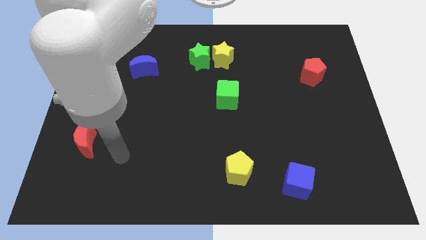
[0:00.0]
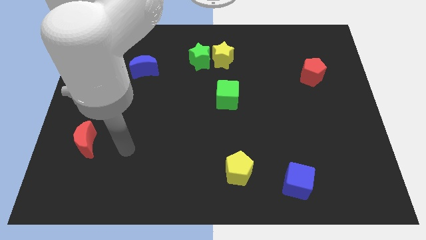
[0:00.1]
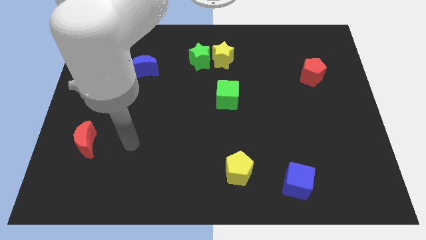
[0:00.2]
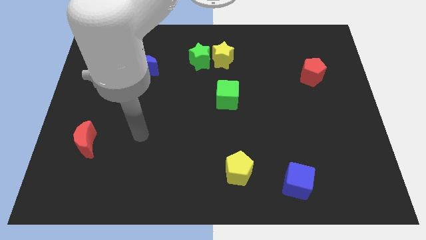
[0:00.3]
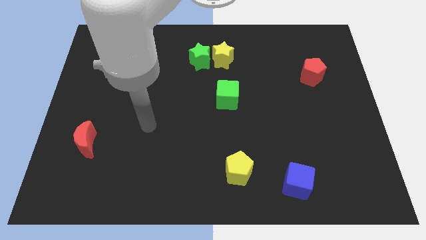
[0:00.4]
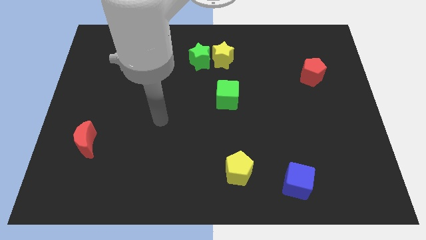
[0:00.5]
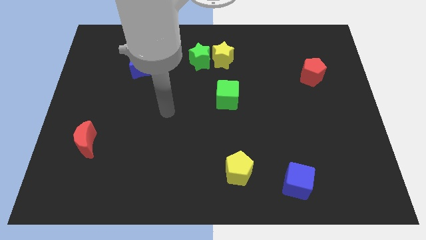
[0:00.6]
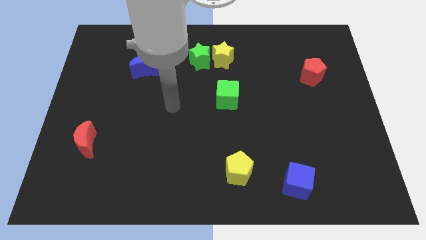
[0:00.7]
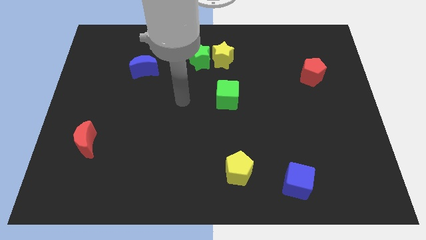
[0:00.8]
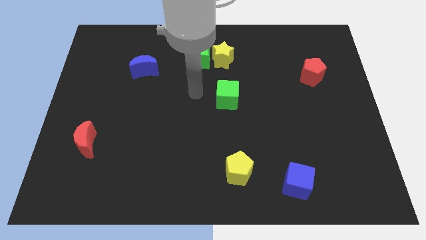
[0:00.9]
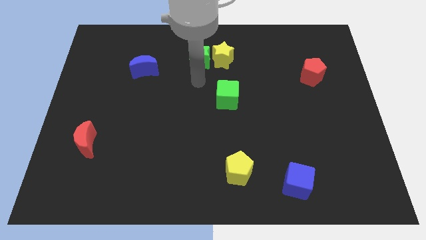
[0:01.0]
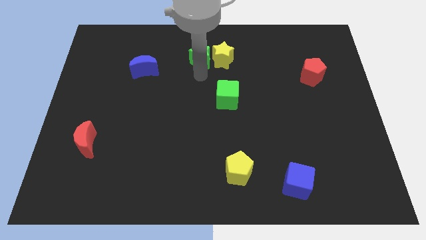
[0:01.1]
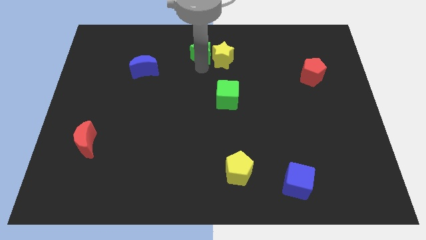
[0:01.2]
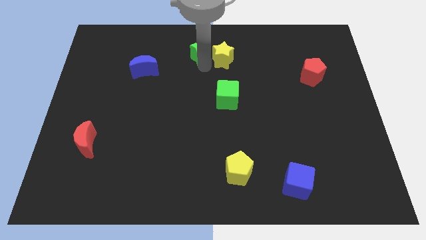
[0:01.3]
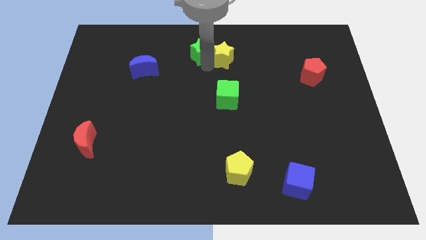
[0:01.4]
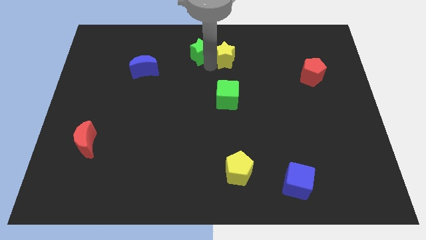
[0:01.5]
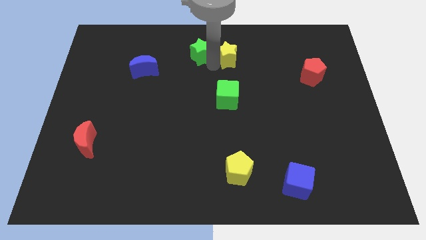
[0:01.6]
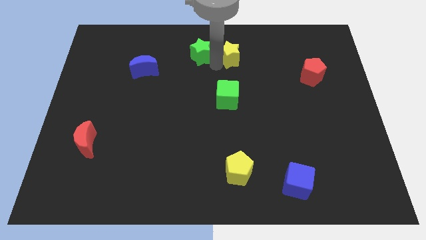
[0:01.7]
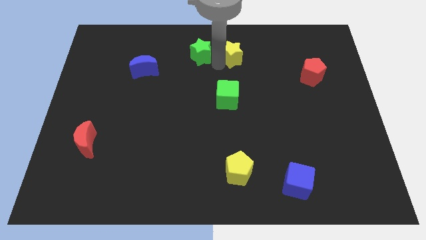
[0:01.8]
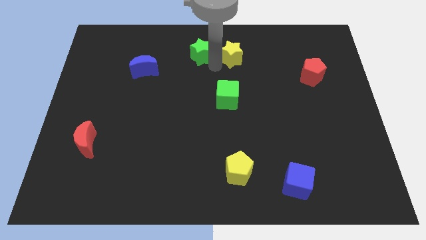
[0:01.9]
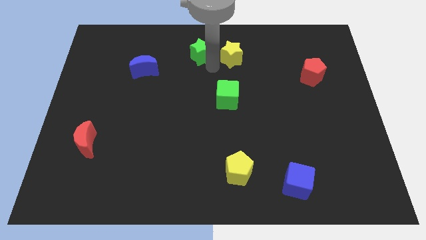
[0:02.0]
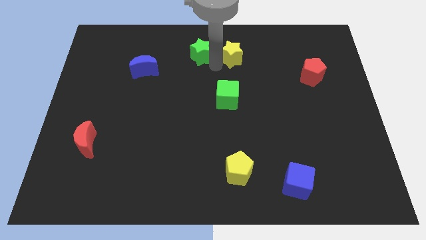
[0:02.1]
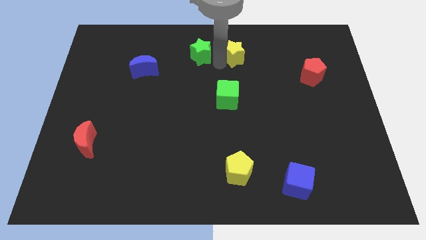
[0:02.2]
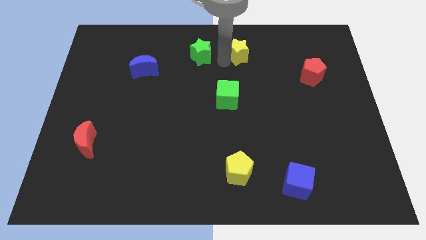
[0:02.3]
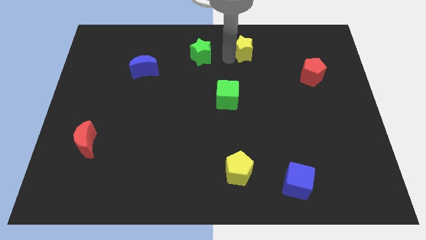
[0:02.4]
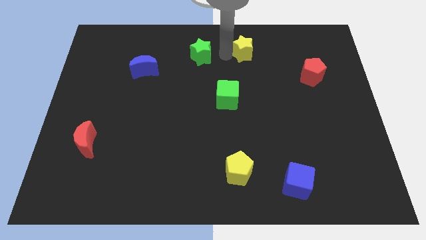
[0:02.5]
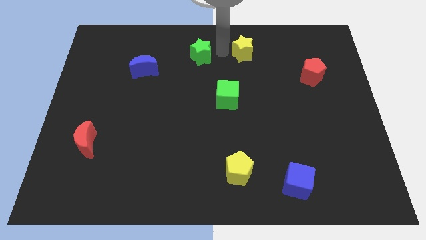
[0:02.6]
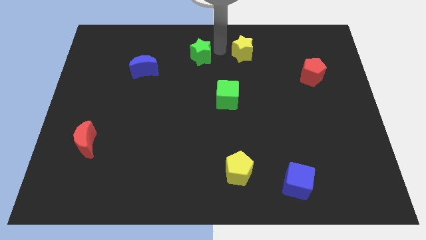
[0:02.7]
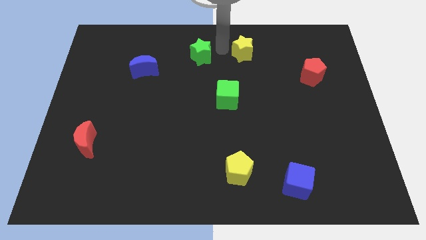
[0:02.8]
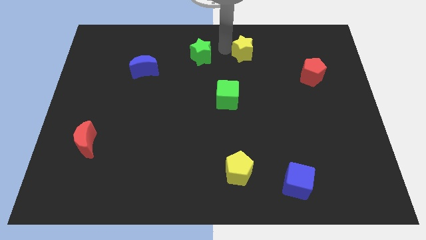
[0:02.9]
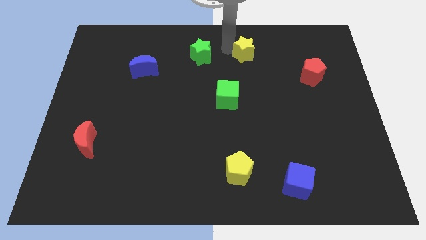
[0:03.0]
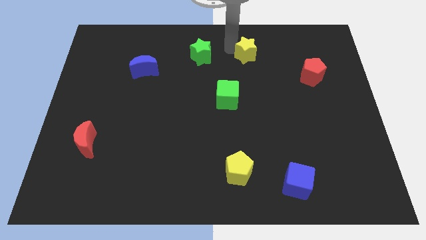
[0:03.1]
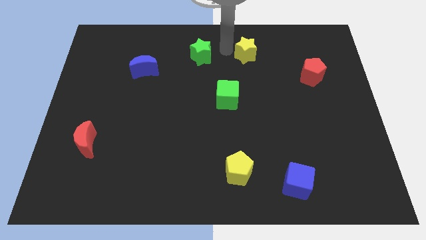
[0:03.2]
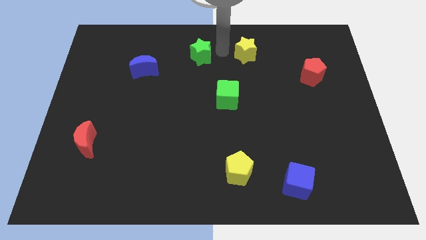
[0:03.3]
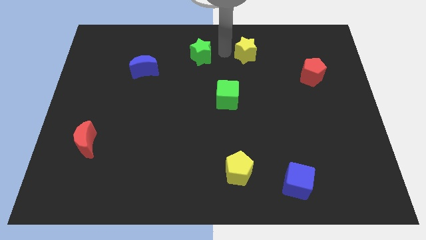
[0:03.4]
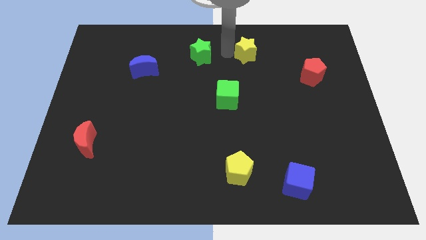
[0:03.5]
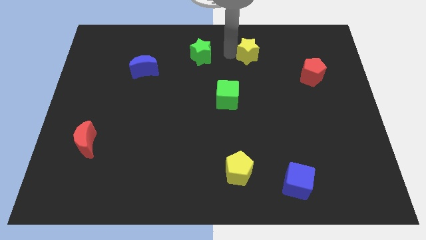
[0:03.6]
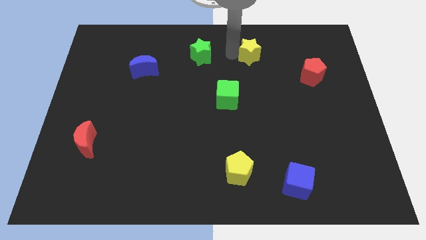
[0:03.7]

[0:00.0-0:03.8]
move the yellow star somewhat to the right

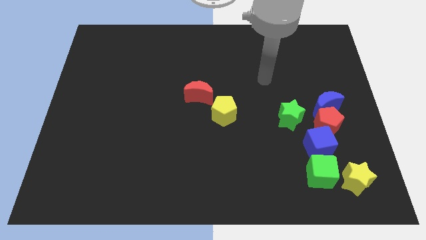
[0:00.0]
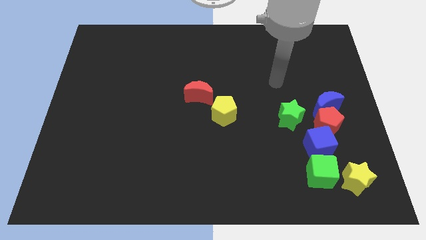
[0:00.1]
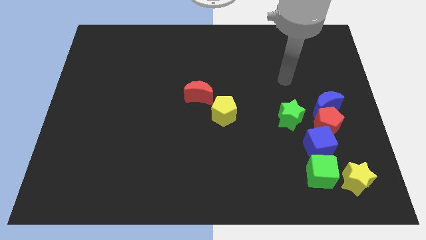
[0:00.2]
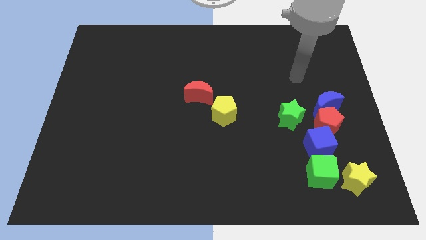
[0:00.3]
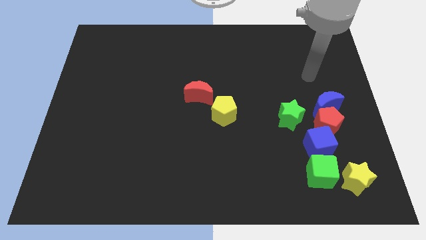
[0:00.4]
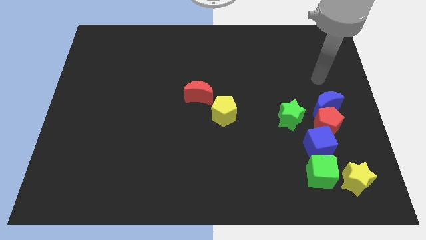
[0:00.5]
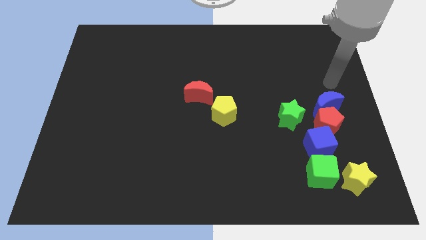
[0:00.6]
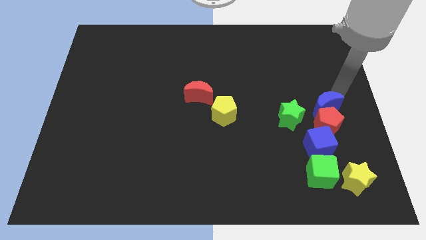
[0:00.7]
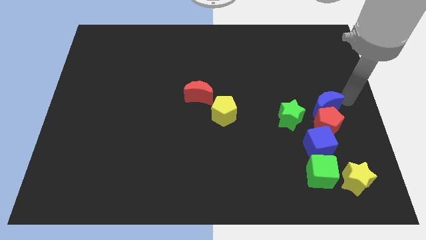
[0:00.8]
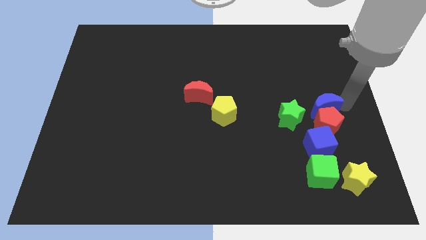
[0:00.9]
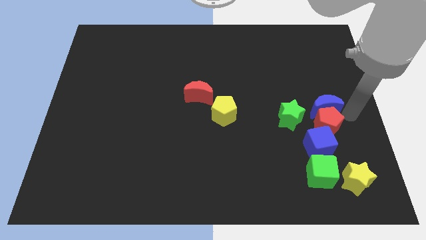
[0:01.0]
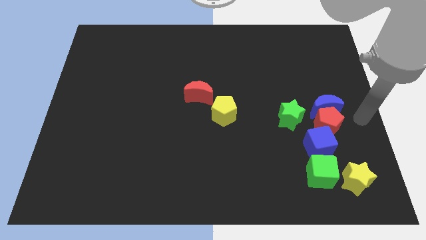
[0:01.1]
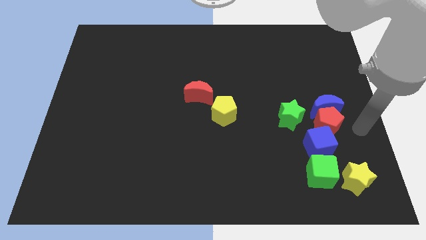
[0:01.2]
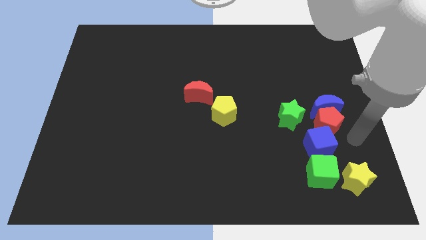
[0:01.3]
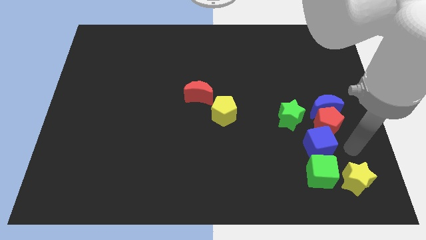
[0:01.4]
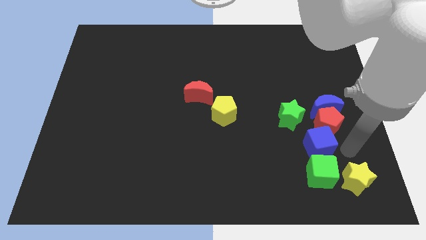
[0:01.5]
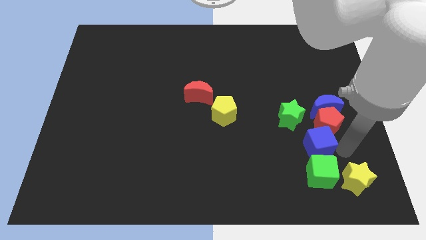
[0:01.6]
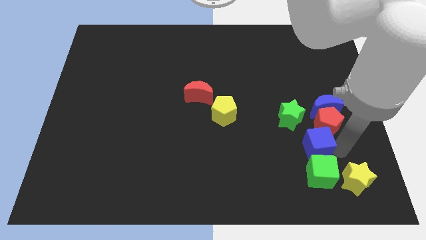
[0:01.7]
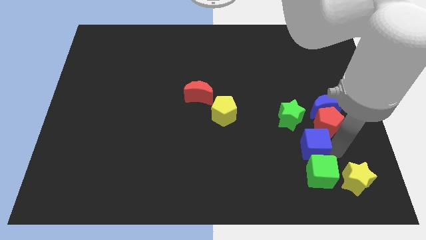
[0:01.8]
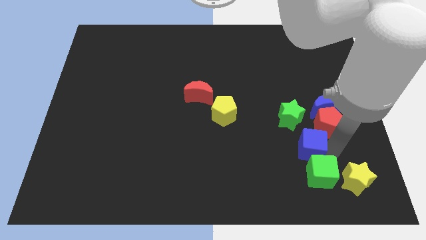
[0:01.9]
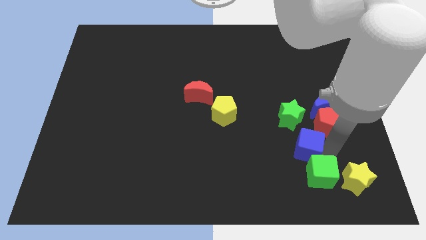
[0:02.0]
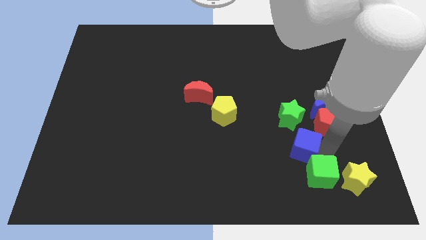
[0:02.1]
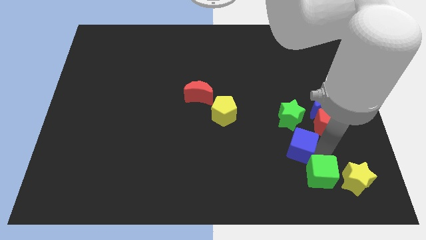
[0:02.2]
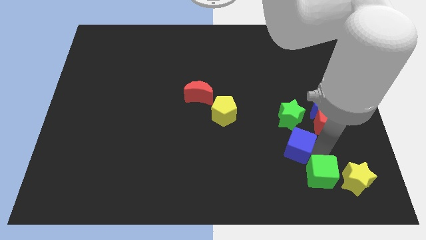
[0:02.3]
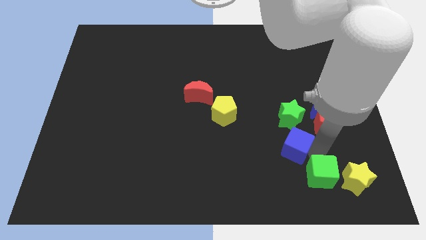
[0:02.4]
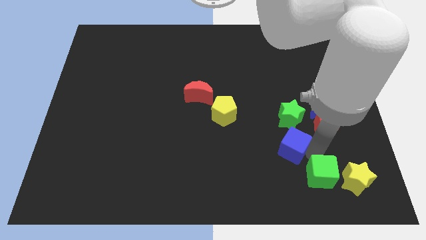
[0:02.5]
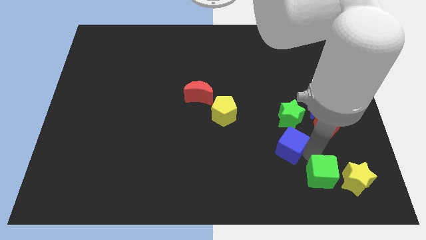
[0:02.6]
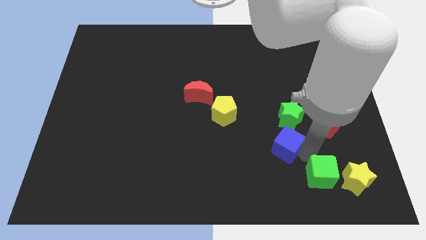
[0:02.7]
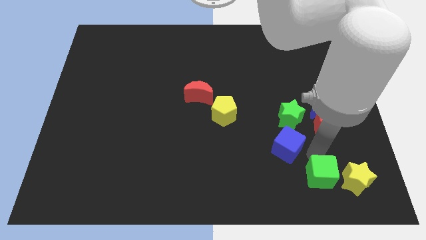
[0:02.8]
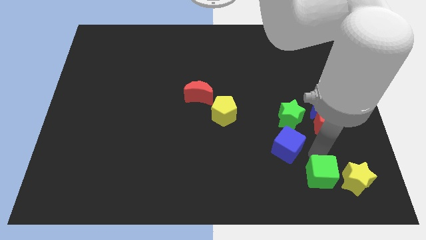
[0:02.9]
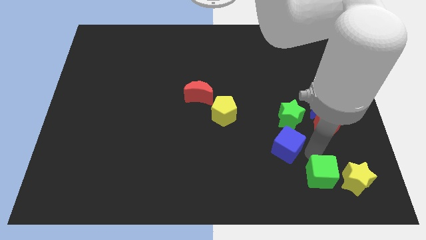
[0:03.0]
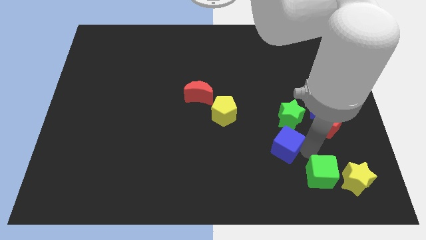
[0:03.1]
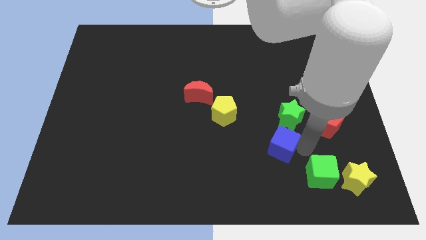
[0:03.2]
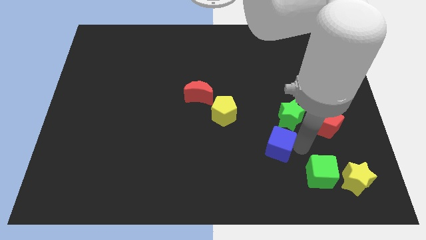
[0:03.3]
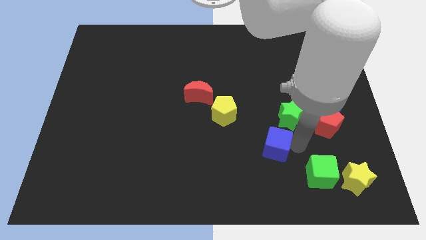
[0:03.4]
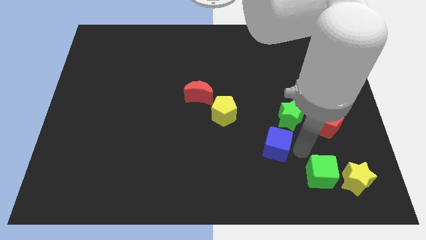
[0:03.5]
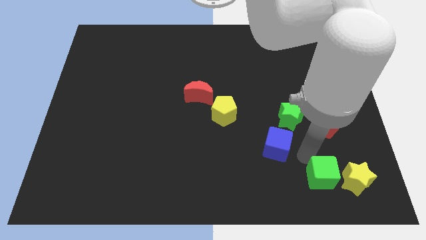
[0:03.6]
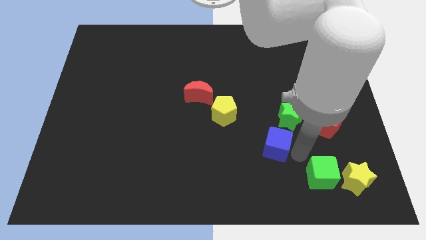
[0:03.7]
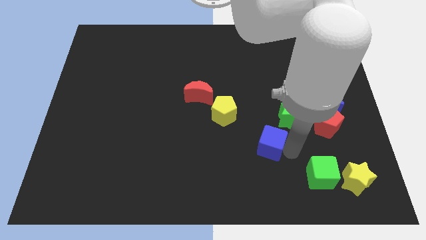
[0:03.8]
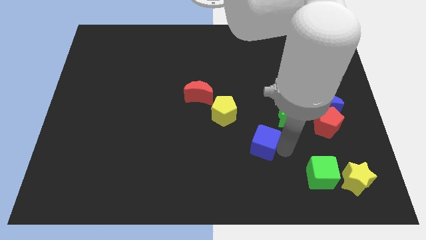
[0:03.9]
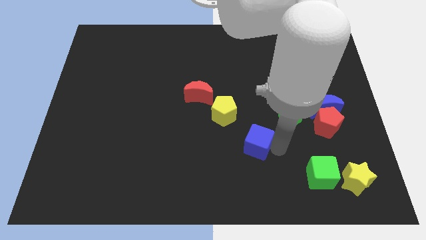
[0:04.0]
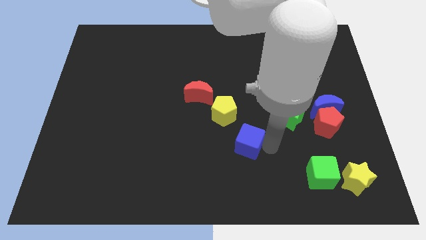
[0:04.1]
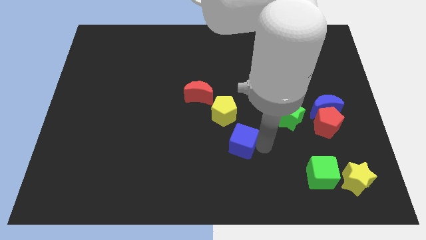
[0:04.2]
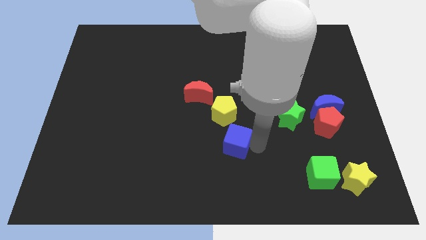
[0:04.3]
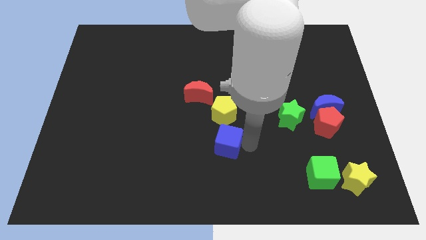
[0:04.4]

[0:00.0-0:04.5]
push the blue cube left

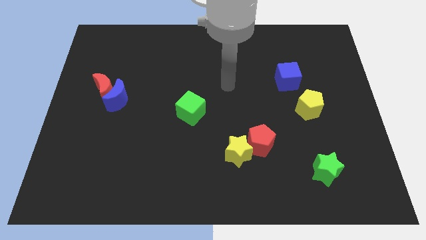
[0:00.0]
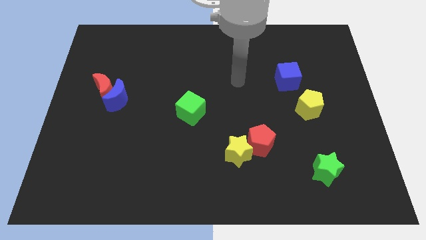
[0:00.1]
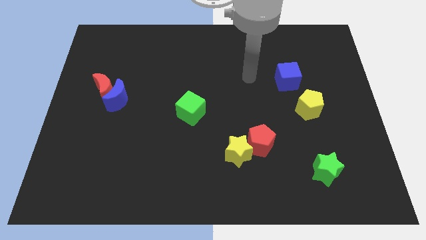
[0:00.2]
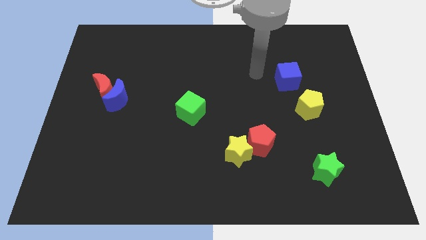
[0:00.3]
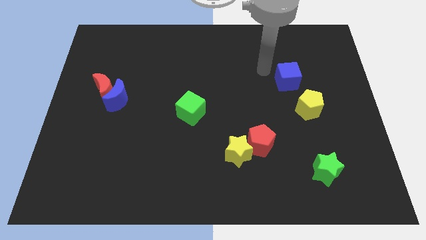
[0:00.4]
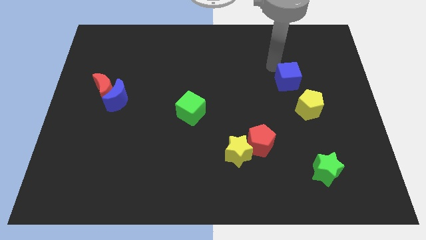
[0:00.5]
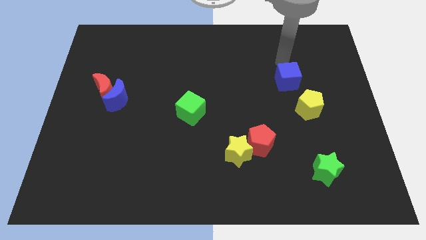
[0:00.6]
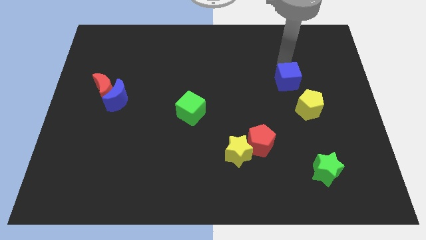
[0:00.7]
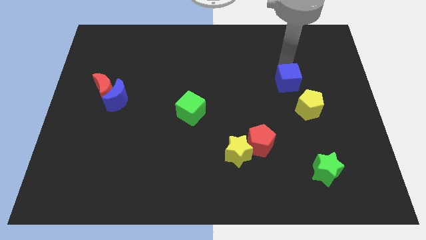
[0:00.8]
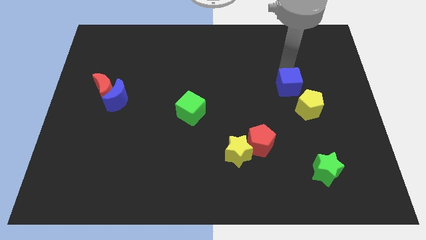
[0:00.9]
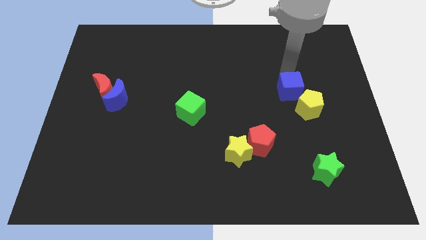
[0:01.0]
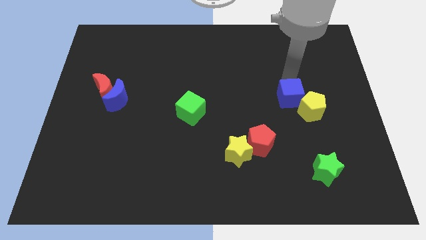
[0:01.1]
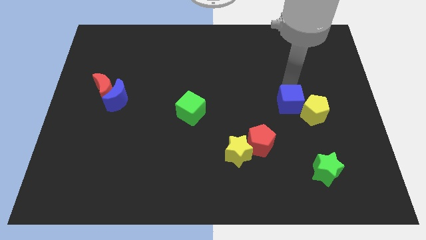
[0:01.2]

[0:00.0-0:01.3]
move the blue cube down somewhat
